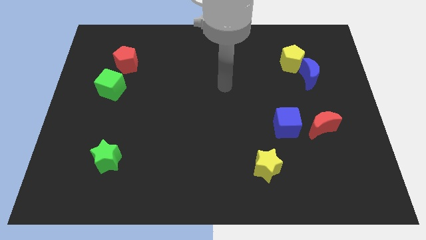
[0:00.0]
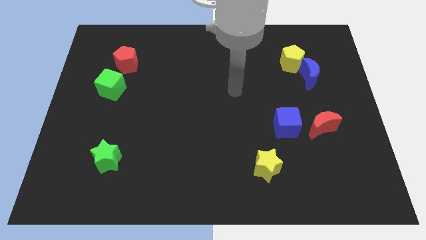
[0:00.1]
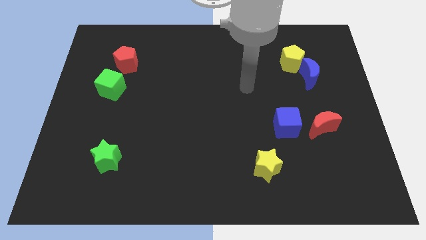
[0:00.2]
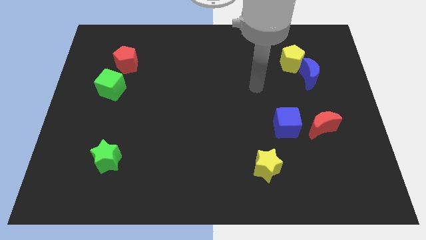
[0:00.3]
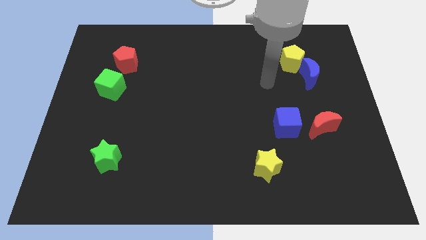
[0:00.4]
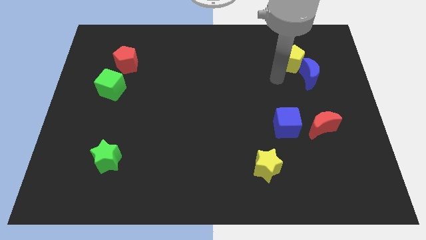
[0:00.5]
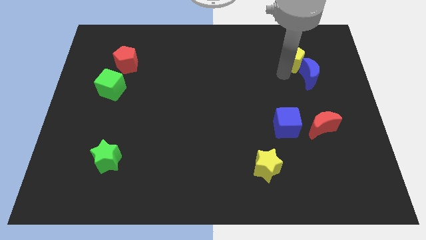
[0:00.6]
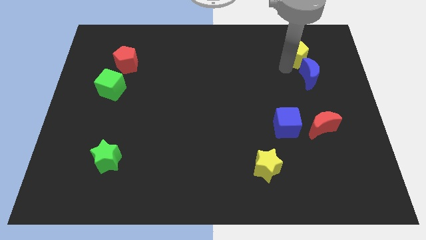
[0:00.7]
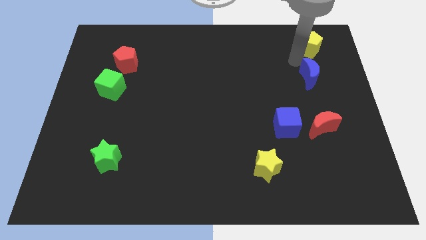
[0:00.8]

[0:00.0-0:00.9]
move the blue moon away from the yellow pentagon

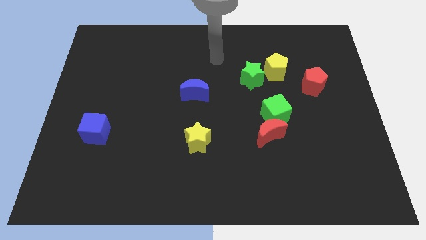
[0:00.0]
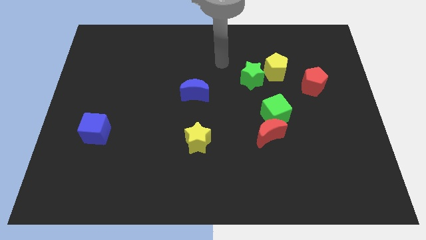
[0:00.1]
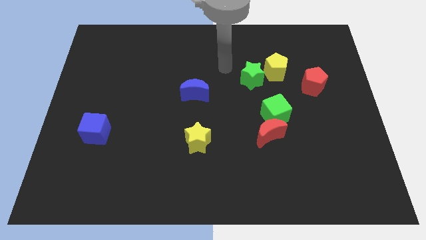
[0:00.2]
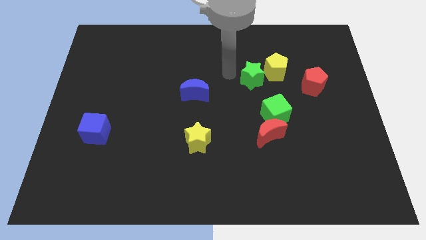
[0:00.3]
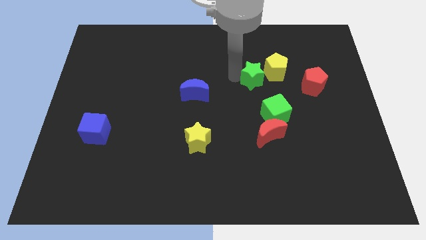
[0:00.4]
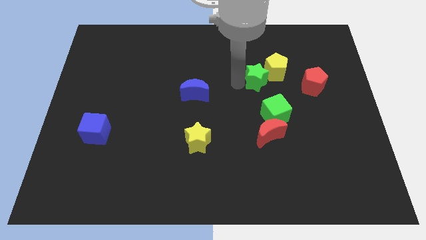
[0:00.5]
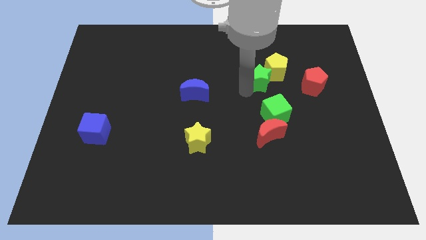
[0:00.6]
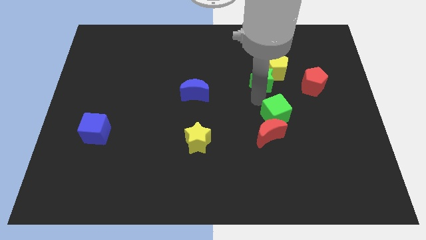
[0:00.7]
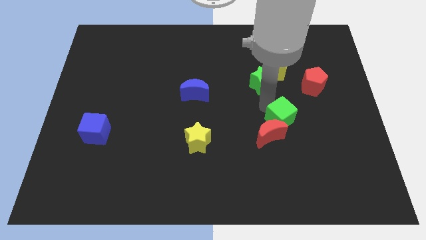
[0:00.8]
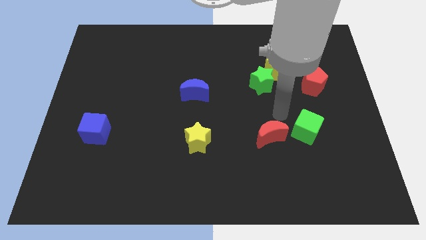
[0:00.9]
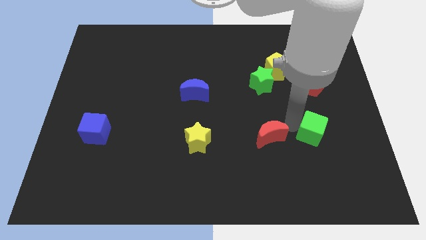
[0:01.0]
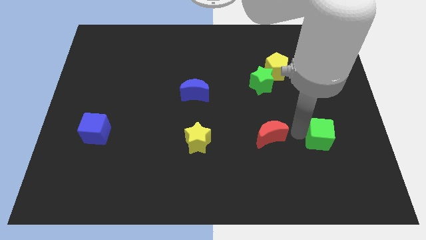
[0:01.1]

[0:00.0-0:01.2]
pull the red moon apart from the green cube

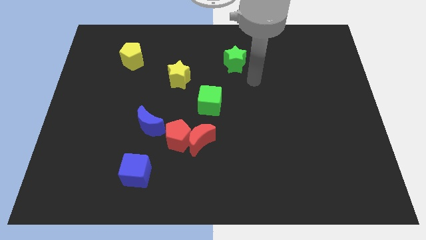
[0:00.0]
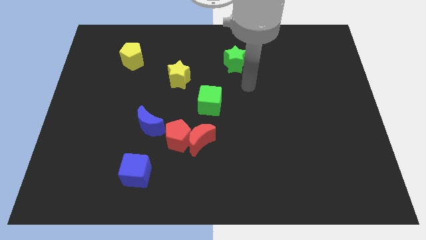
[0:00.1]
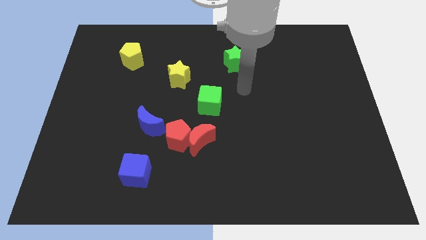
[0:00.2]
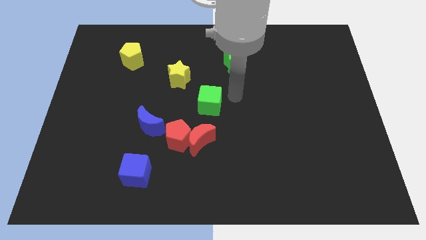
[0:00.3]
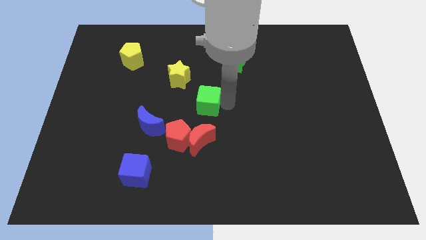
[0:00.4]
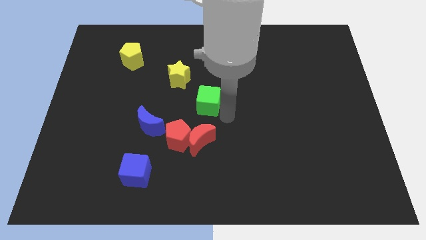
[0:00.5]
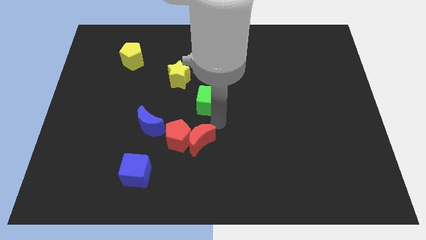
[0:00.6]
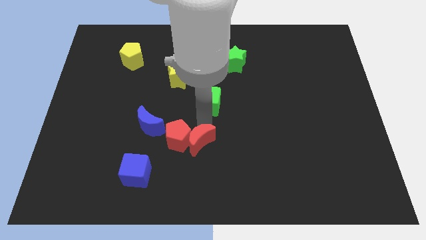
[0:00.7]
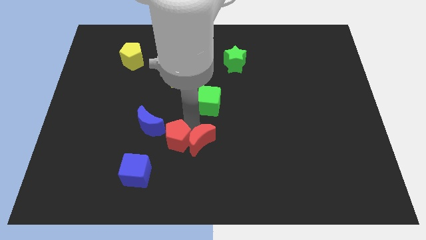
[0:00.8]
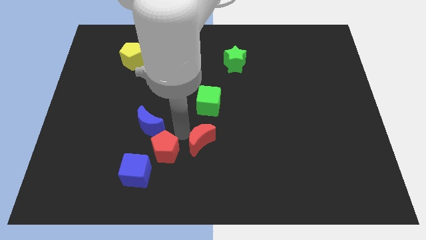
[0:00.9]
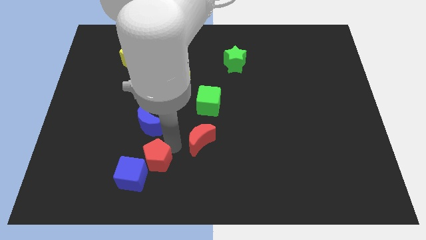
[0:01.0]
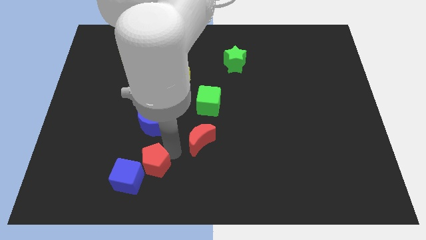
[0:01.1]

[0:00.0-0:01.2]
pull the red moon apart from the red pentagon

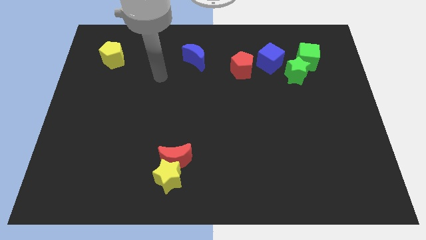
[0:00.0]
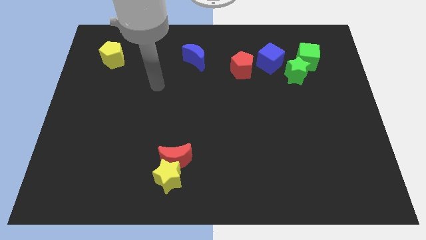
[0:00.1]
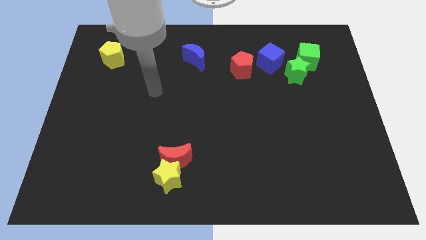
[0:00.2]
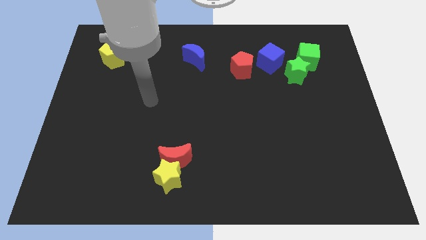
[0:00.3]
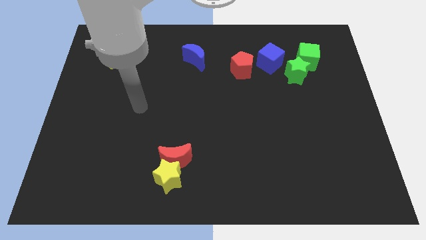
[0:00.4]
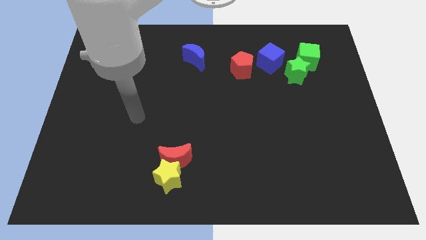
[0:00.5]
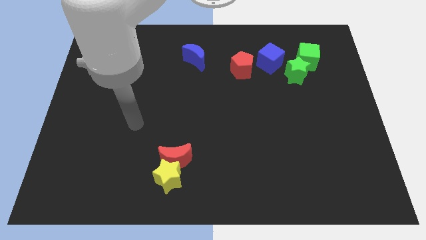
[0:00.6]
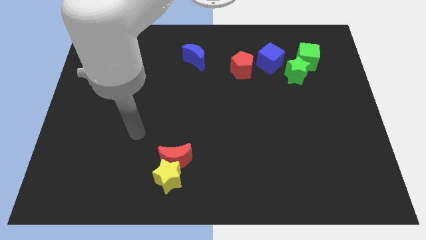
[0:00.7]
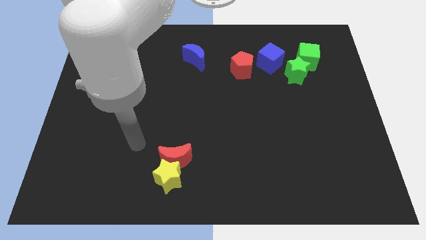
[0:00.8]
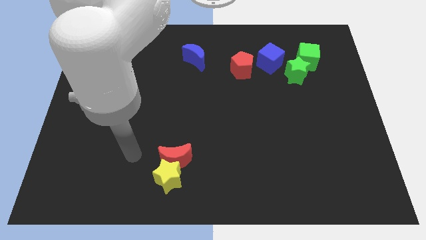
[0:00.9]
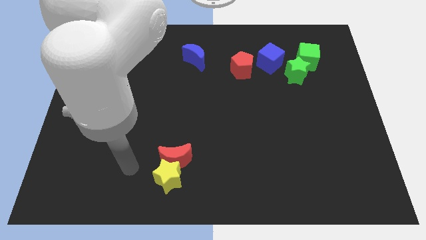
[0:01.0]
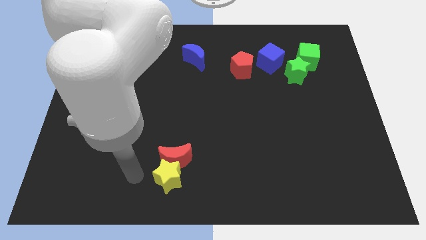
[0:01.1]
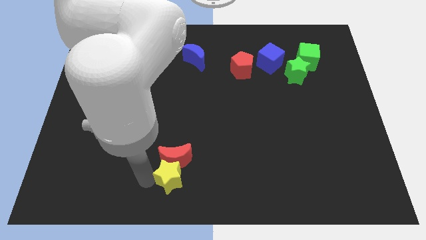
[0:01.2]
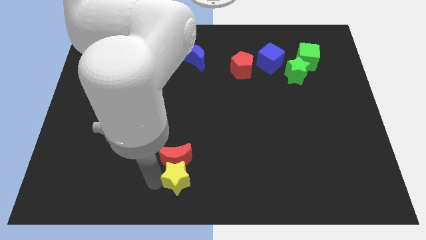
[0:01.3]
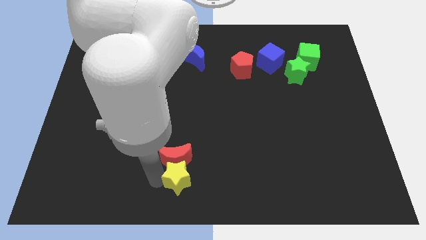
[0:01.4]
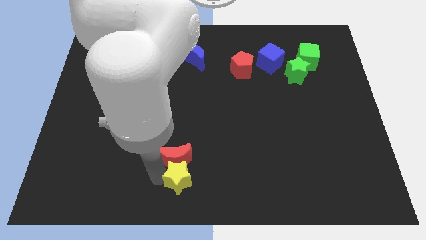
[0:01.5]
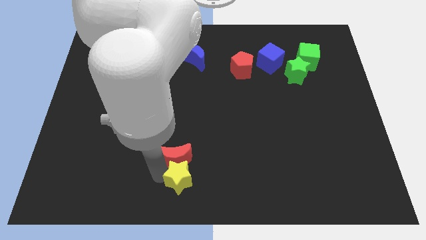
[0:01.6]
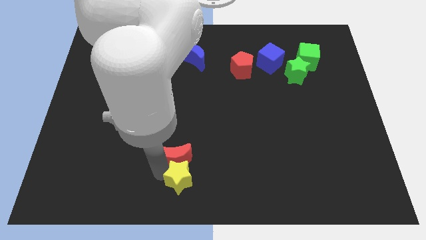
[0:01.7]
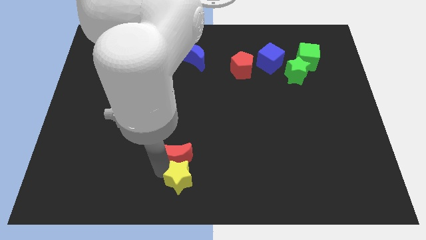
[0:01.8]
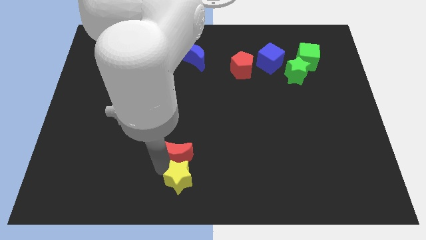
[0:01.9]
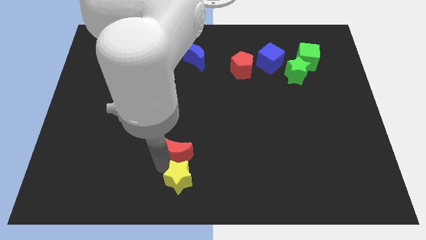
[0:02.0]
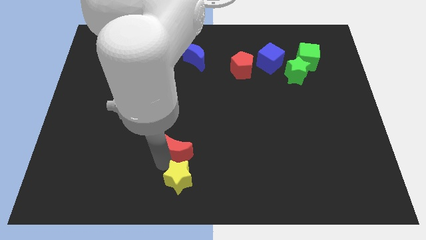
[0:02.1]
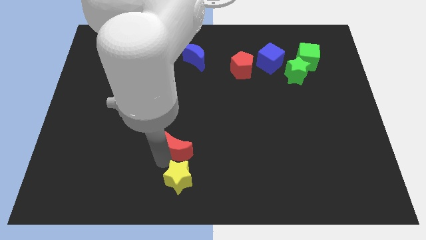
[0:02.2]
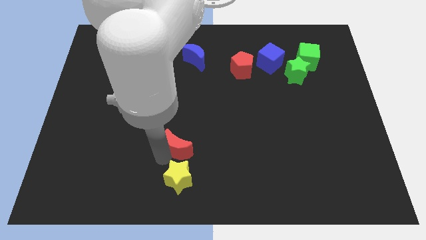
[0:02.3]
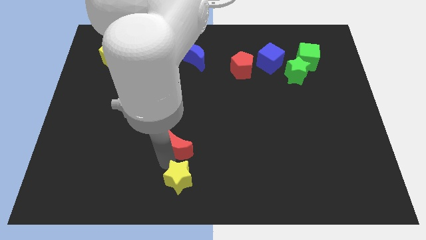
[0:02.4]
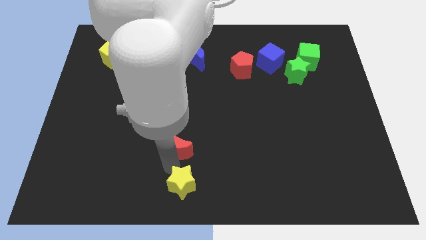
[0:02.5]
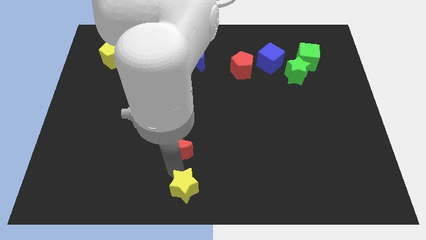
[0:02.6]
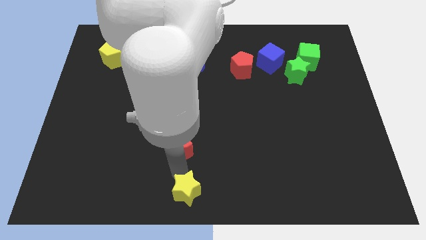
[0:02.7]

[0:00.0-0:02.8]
separate the red moon from the yellow star

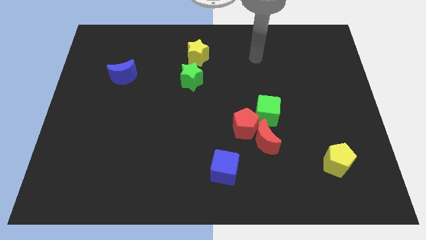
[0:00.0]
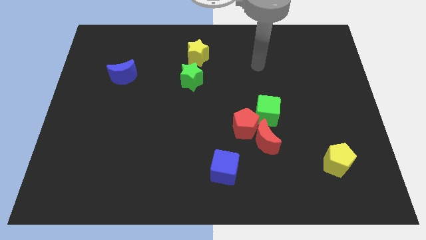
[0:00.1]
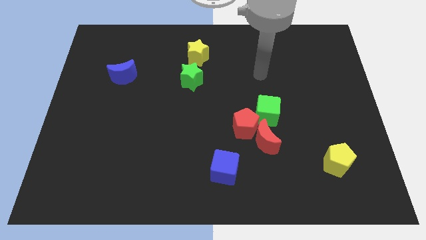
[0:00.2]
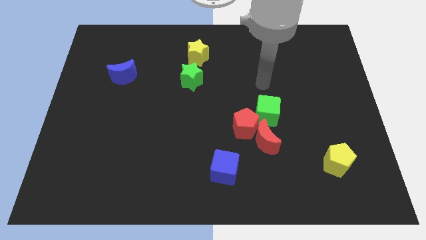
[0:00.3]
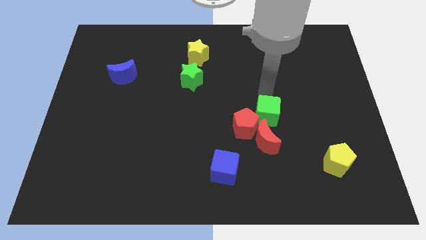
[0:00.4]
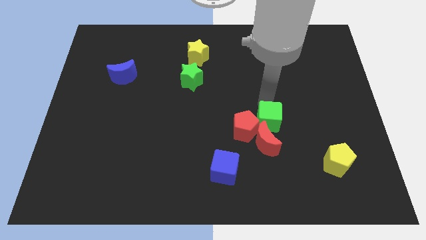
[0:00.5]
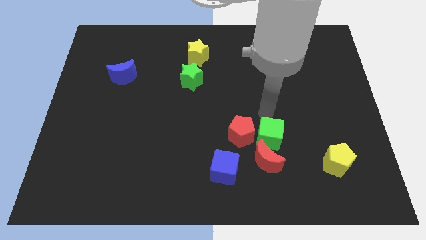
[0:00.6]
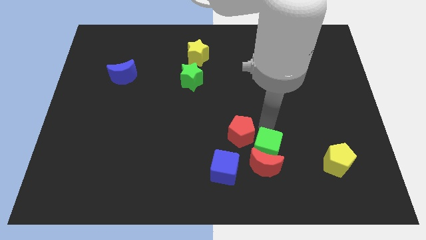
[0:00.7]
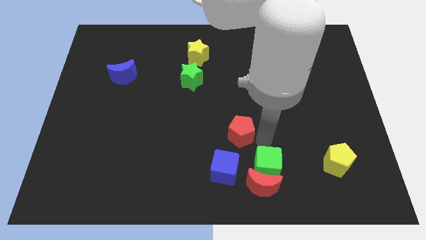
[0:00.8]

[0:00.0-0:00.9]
move the red pentagon away from the red moon and green cube

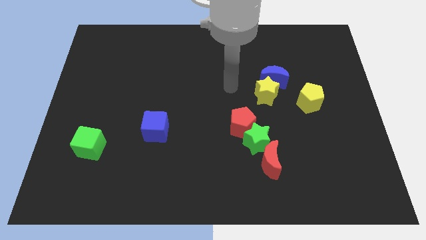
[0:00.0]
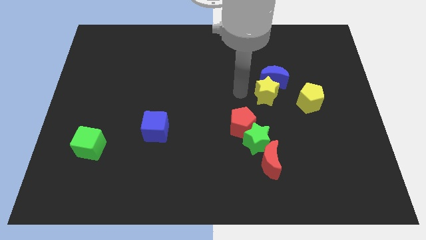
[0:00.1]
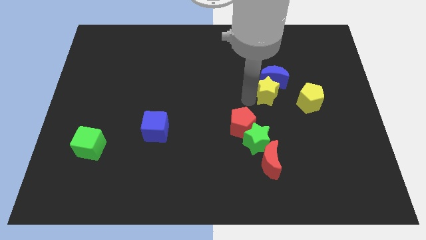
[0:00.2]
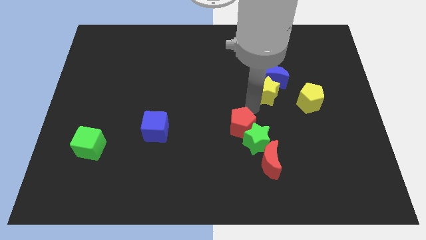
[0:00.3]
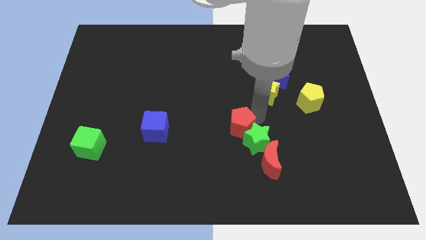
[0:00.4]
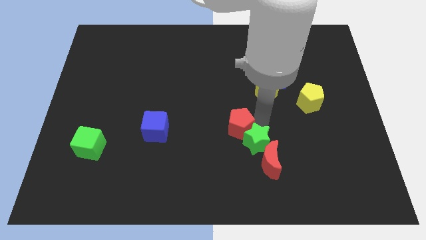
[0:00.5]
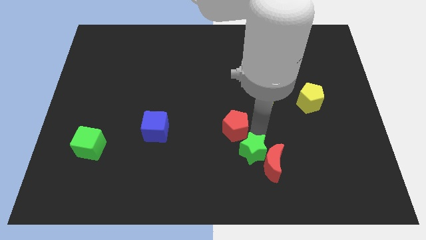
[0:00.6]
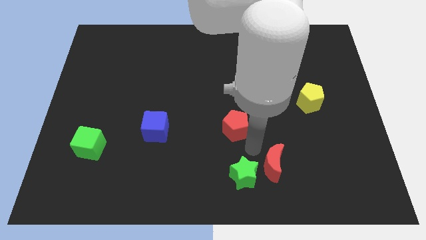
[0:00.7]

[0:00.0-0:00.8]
move the red pentagon away from the green star

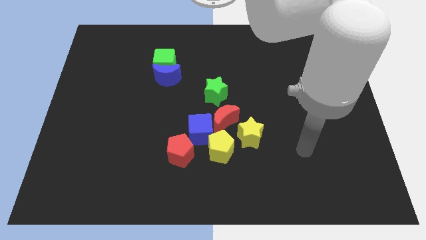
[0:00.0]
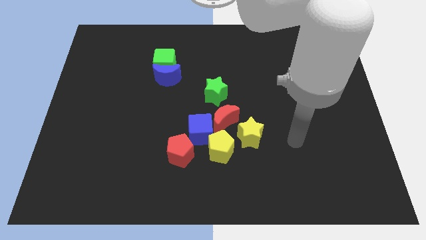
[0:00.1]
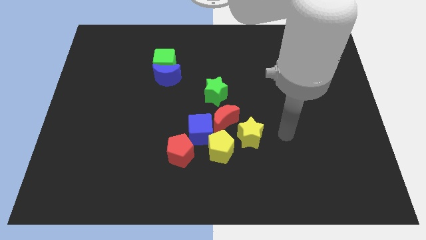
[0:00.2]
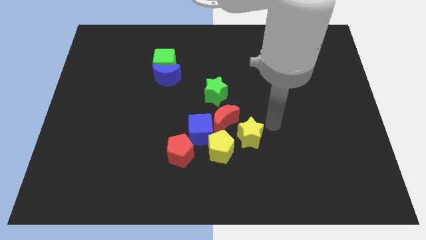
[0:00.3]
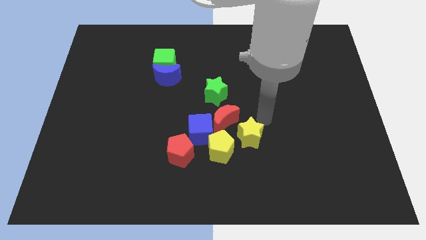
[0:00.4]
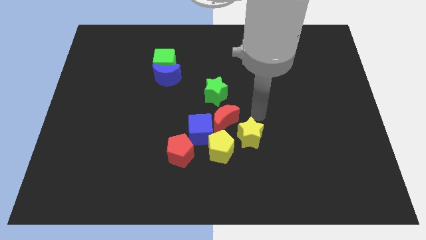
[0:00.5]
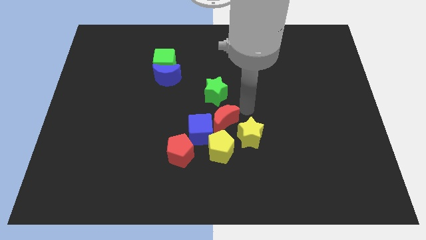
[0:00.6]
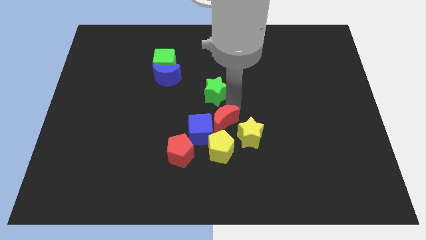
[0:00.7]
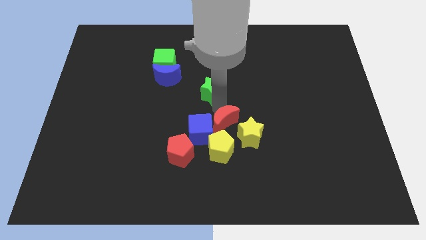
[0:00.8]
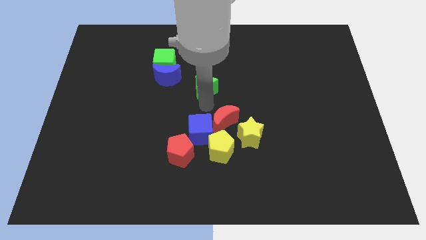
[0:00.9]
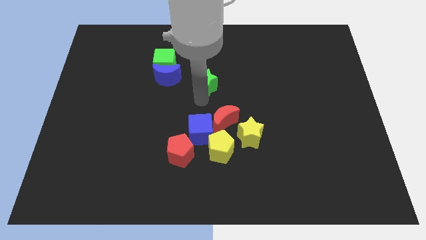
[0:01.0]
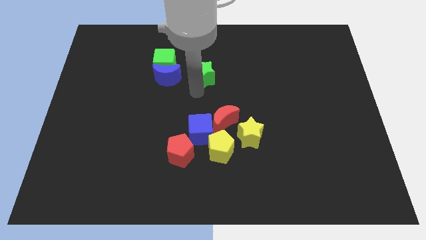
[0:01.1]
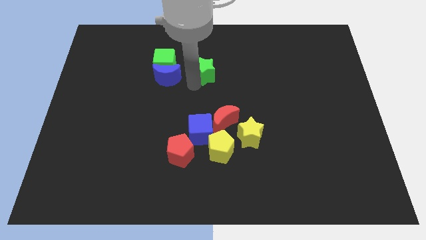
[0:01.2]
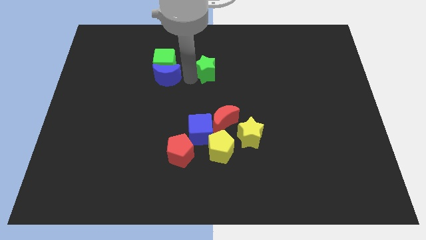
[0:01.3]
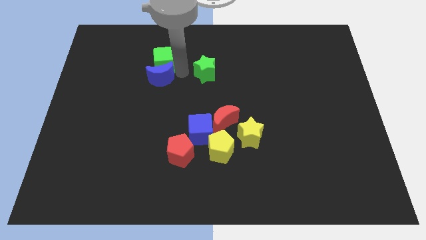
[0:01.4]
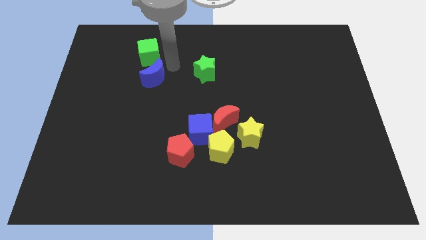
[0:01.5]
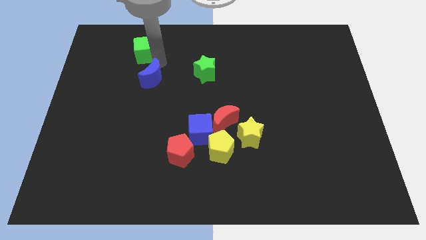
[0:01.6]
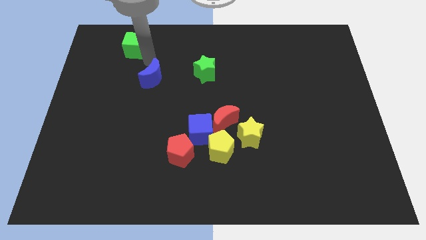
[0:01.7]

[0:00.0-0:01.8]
move the blue moon away from the green cube
